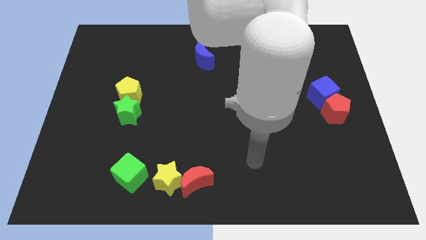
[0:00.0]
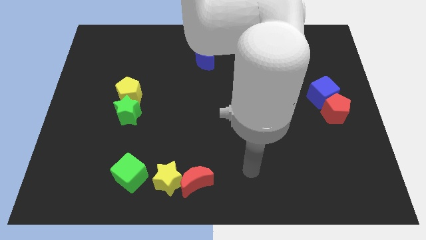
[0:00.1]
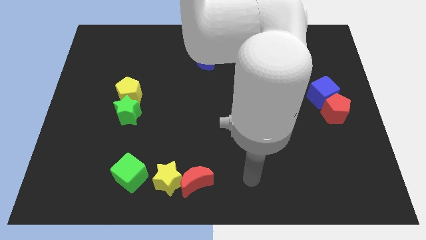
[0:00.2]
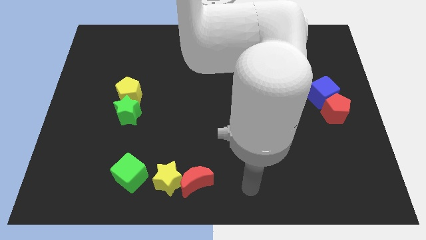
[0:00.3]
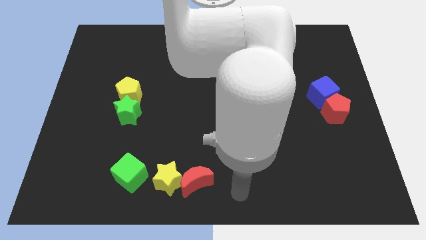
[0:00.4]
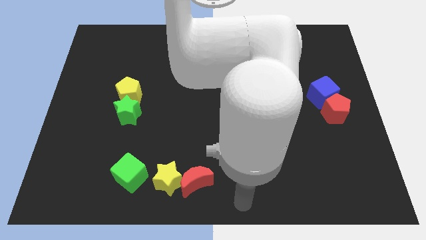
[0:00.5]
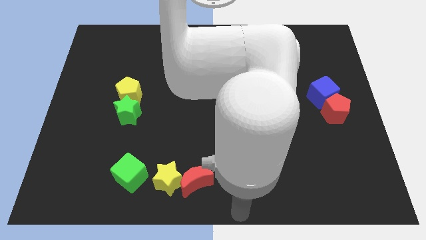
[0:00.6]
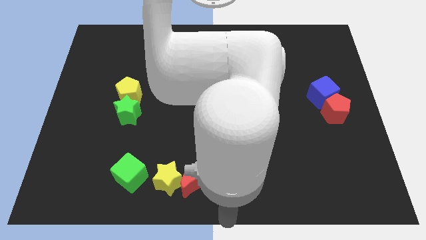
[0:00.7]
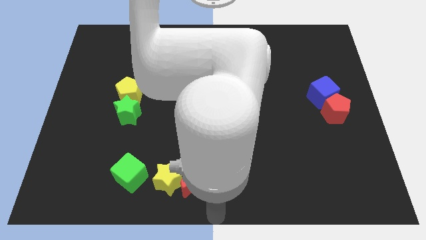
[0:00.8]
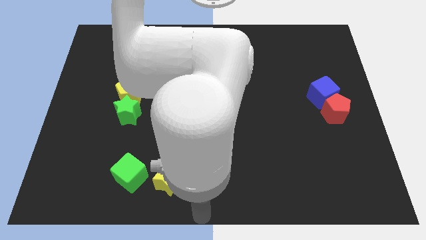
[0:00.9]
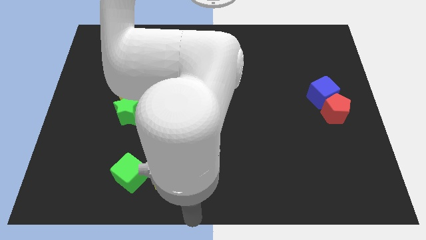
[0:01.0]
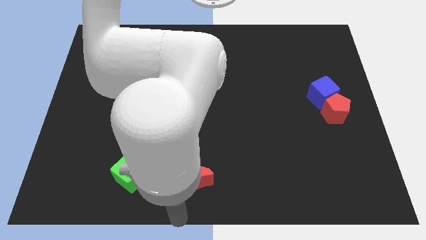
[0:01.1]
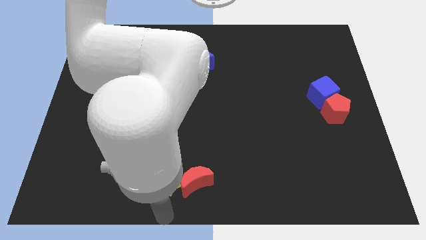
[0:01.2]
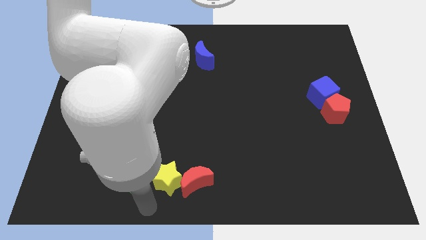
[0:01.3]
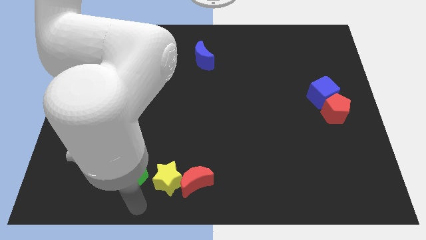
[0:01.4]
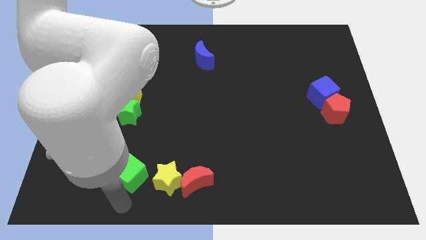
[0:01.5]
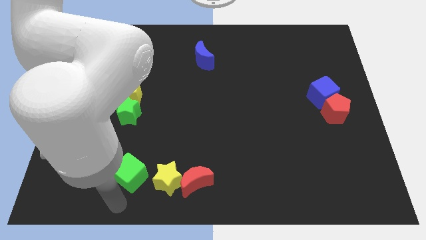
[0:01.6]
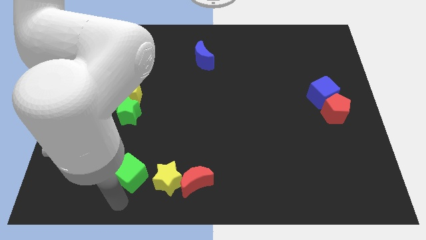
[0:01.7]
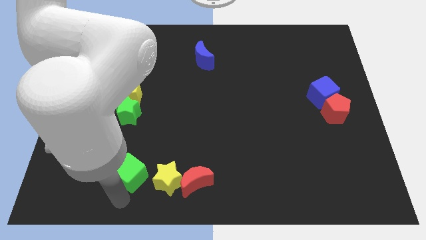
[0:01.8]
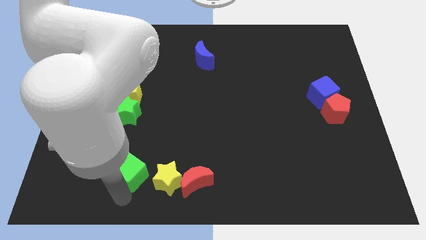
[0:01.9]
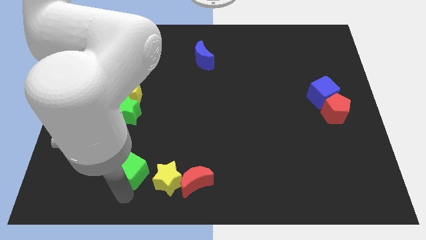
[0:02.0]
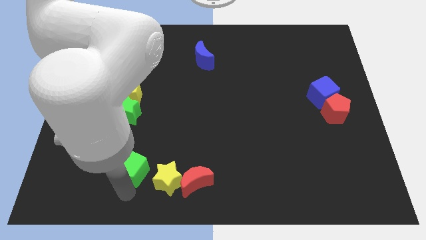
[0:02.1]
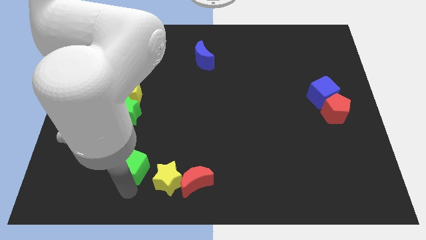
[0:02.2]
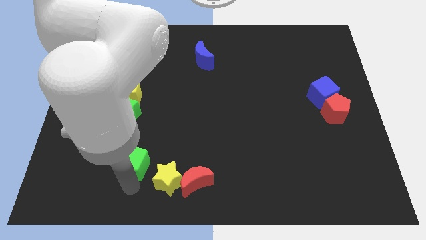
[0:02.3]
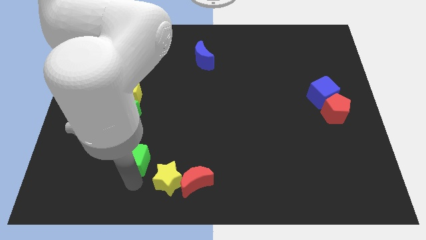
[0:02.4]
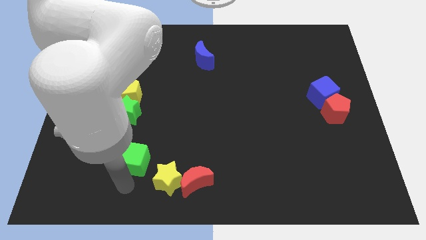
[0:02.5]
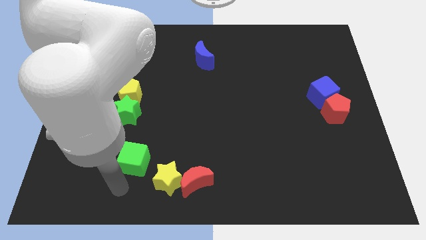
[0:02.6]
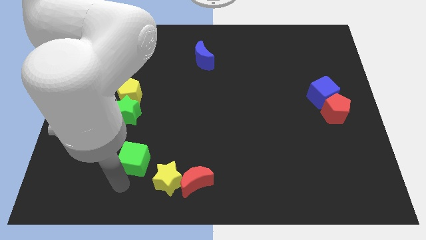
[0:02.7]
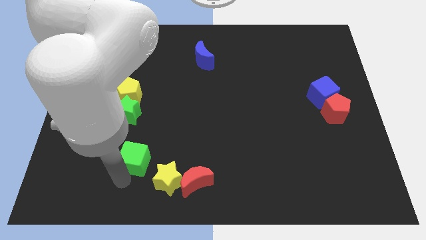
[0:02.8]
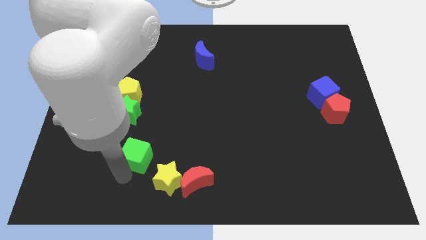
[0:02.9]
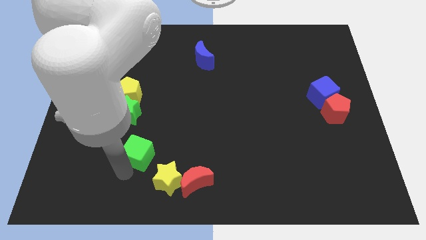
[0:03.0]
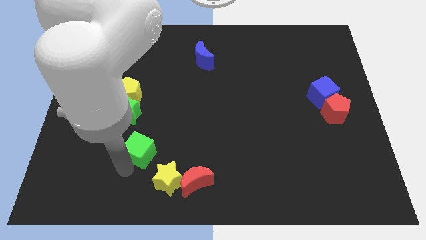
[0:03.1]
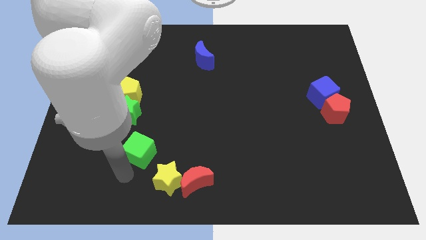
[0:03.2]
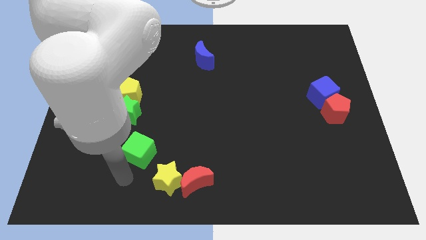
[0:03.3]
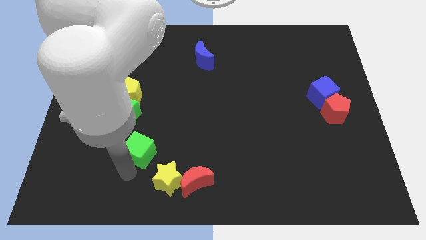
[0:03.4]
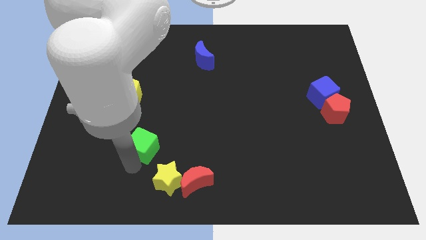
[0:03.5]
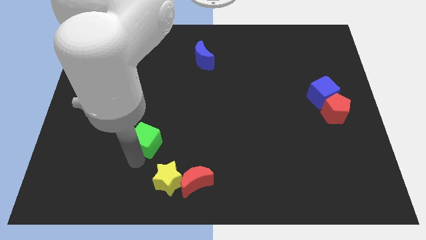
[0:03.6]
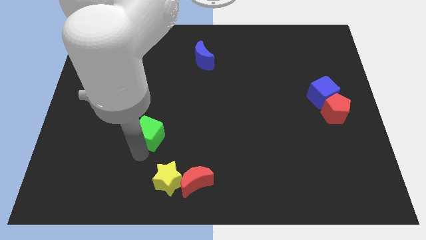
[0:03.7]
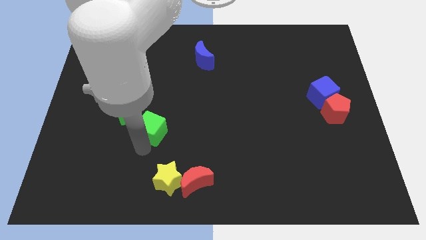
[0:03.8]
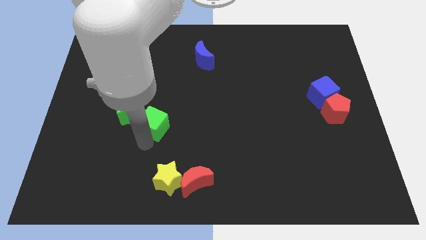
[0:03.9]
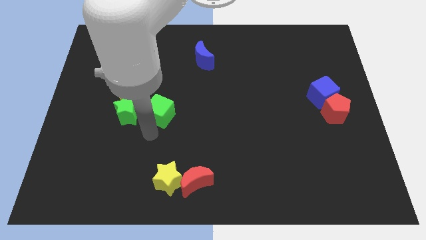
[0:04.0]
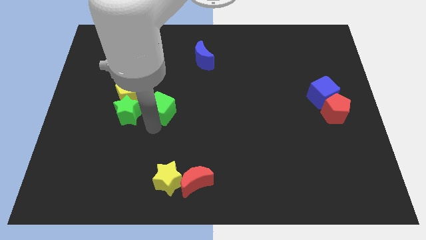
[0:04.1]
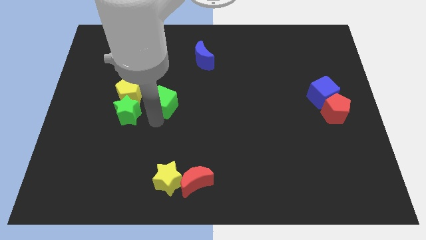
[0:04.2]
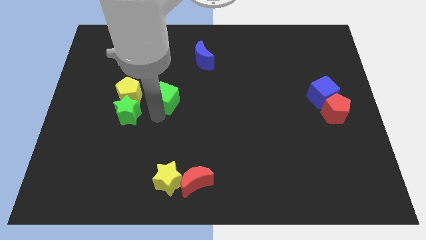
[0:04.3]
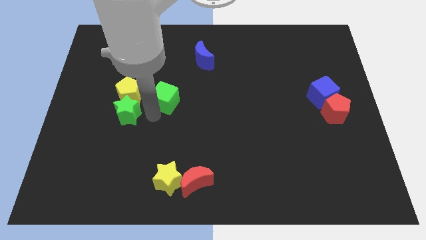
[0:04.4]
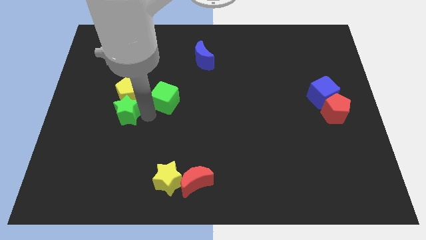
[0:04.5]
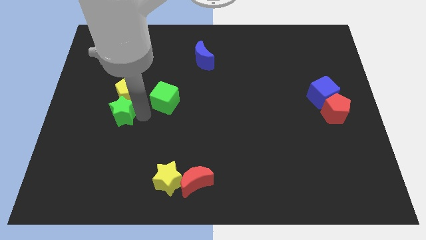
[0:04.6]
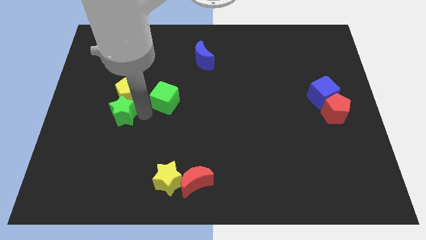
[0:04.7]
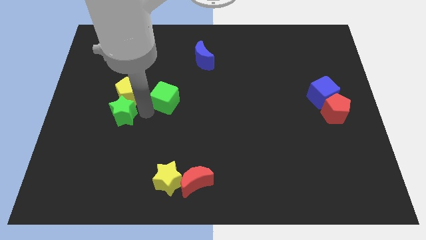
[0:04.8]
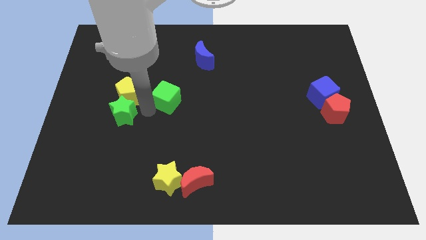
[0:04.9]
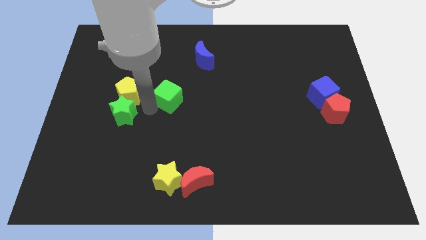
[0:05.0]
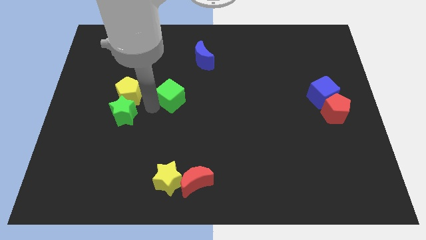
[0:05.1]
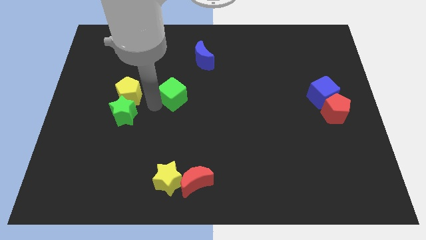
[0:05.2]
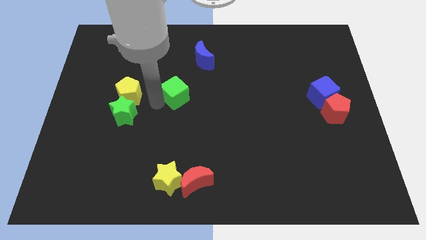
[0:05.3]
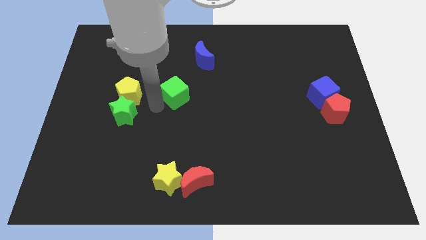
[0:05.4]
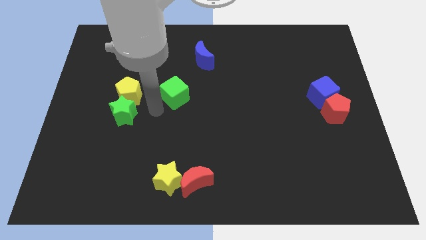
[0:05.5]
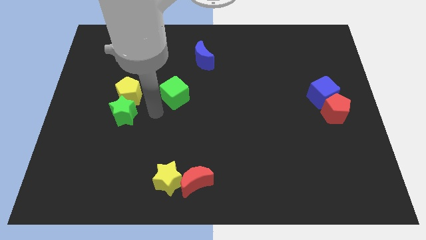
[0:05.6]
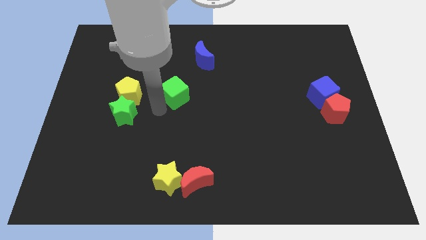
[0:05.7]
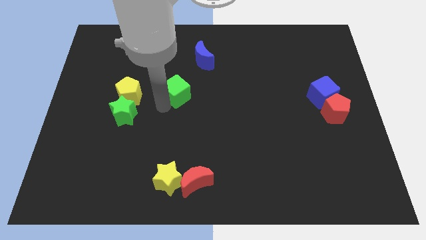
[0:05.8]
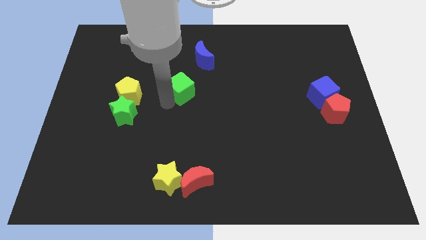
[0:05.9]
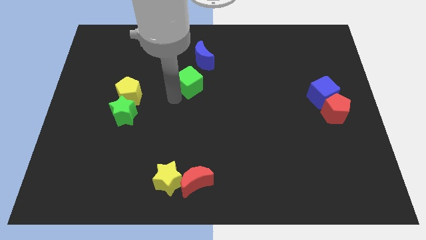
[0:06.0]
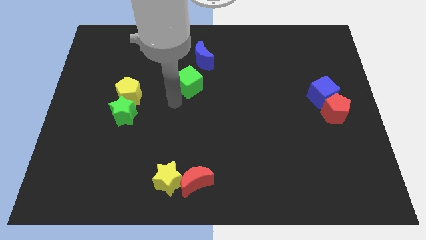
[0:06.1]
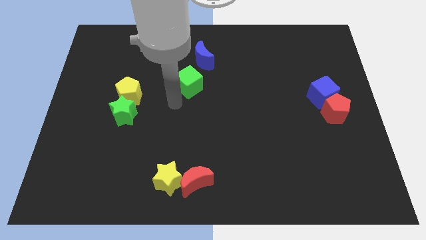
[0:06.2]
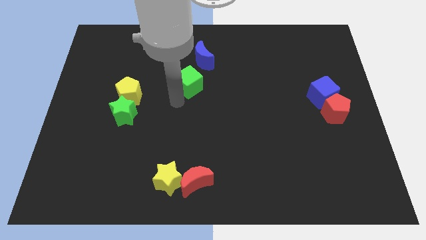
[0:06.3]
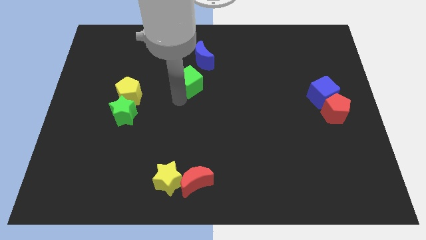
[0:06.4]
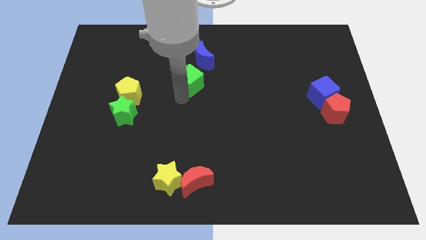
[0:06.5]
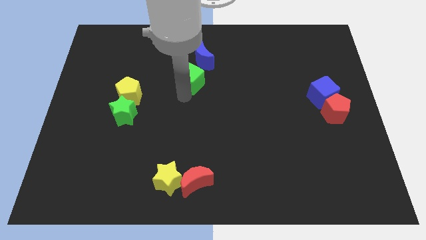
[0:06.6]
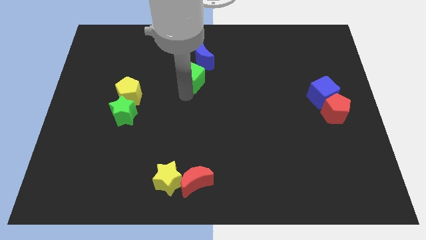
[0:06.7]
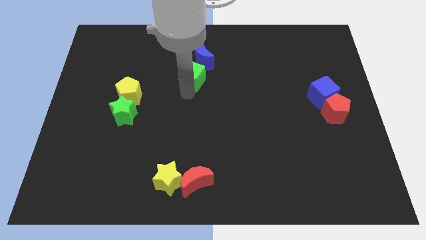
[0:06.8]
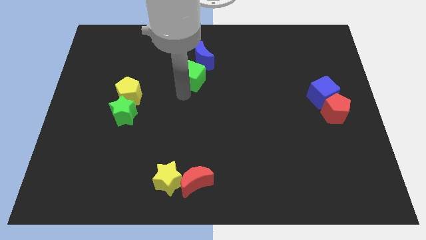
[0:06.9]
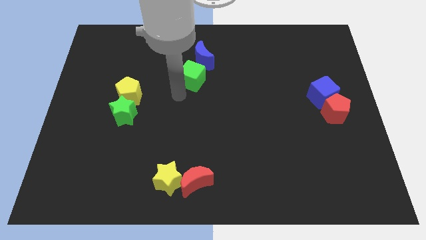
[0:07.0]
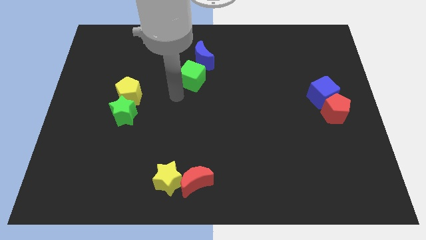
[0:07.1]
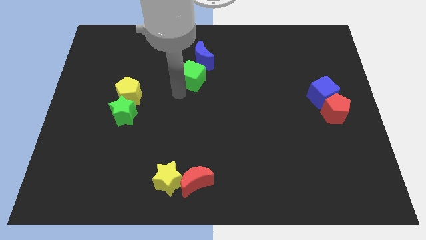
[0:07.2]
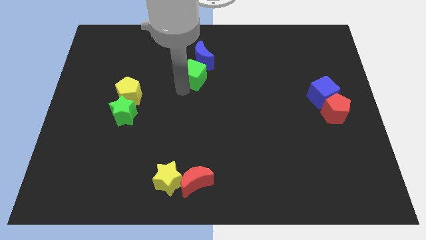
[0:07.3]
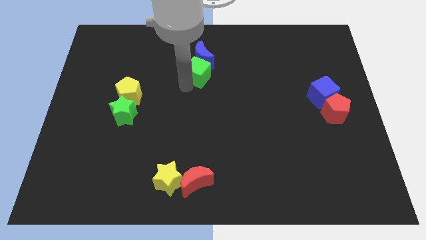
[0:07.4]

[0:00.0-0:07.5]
move the green cube close to the blue moon
